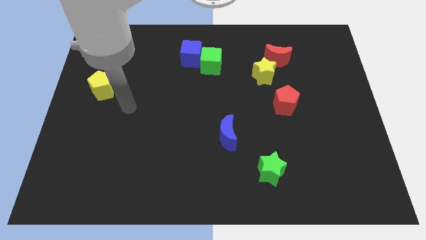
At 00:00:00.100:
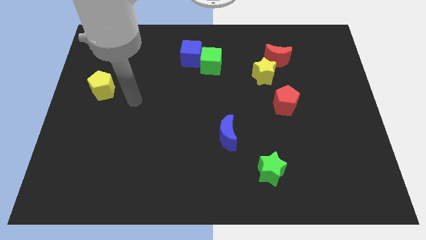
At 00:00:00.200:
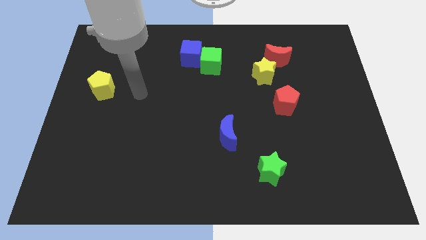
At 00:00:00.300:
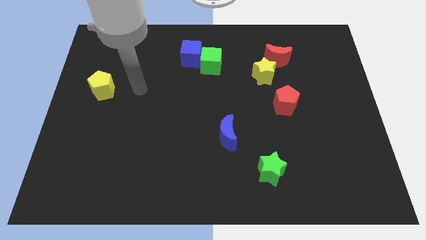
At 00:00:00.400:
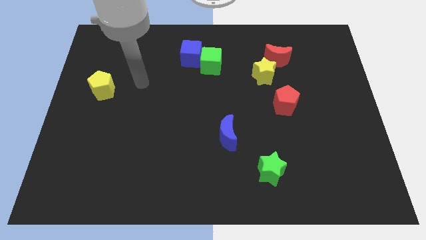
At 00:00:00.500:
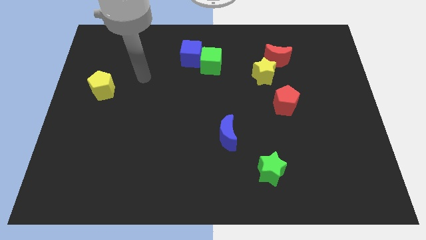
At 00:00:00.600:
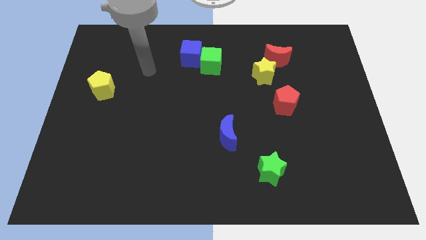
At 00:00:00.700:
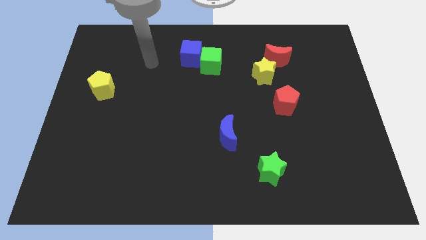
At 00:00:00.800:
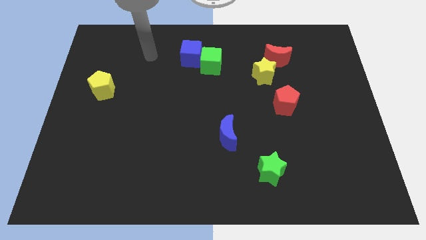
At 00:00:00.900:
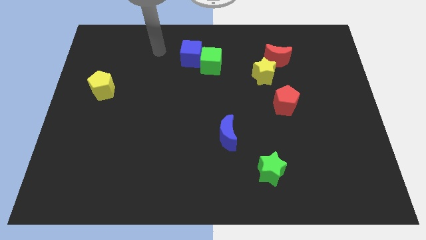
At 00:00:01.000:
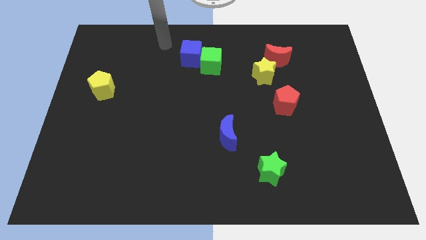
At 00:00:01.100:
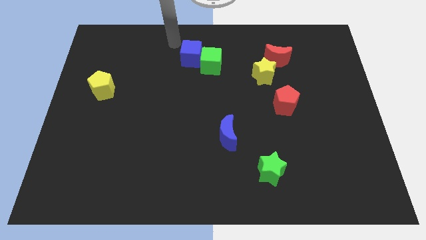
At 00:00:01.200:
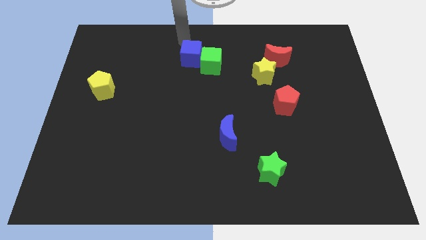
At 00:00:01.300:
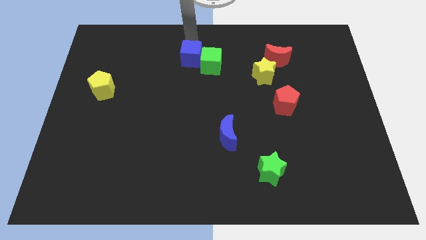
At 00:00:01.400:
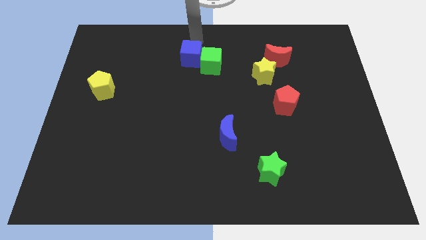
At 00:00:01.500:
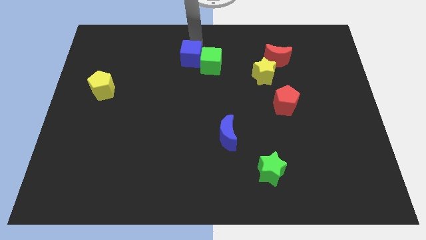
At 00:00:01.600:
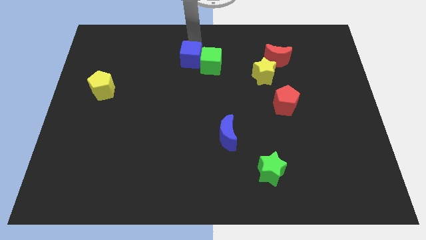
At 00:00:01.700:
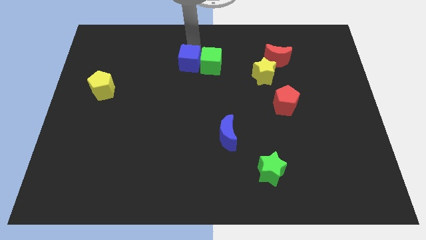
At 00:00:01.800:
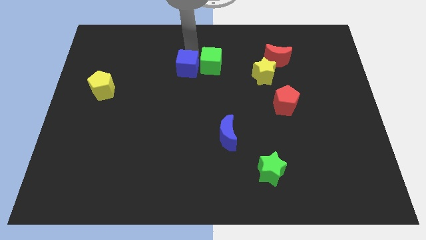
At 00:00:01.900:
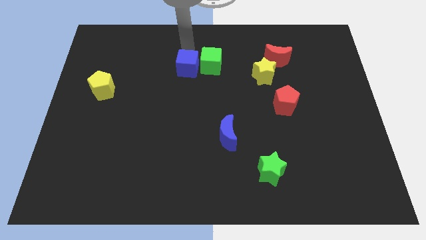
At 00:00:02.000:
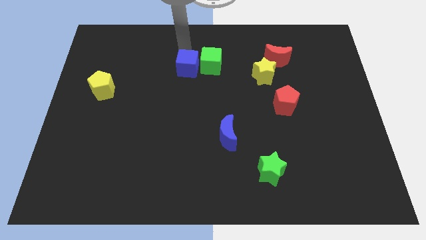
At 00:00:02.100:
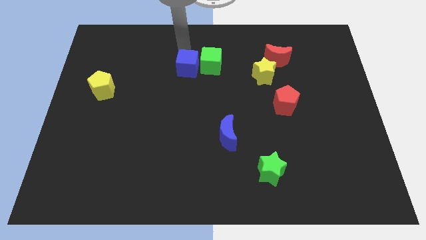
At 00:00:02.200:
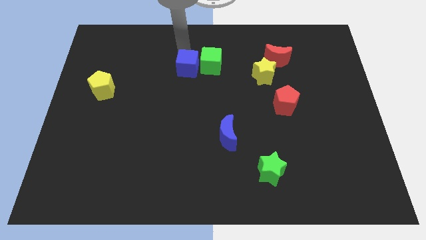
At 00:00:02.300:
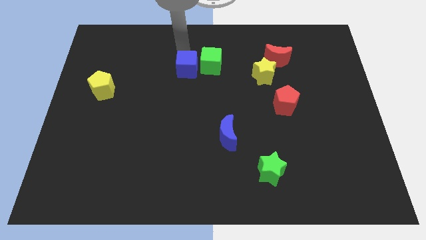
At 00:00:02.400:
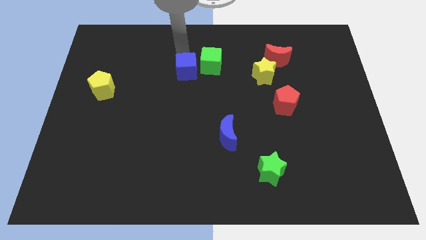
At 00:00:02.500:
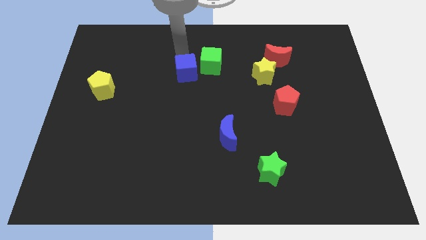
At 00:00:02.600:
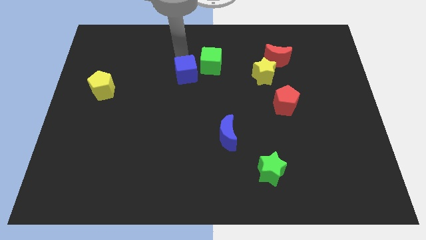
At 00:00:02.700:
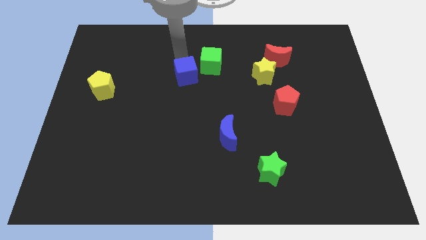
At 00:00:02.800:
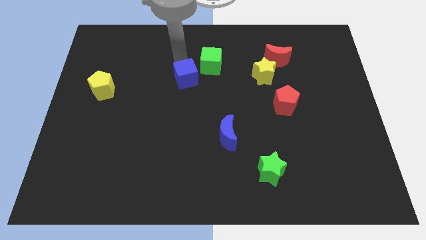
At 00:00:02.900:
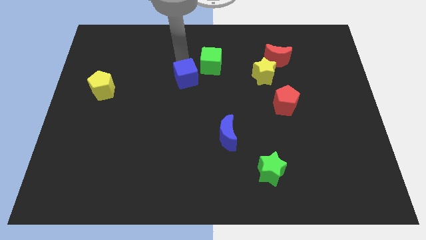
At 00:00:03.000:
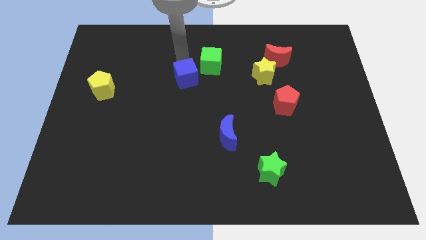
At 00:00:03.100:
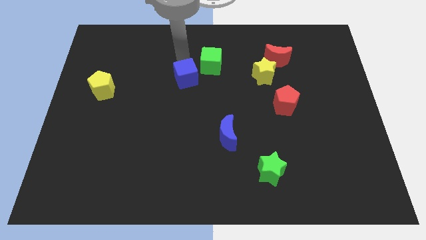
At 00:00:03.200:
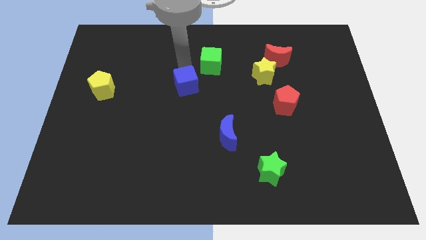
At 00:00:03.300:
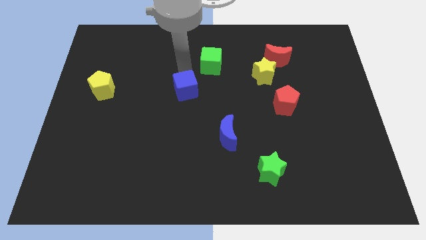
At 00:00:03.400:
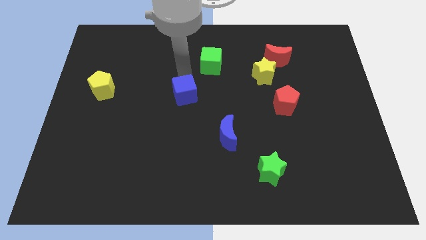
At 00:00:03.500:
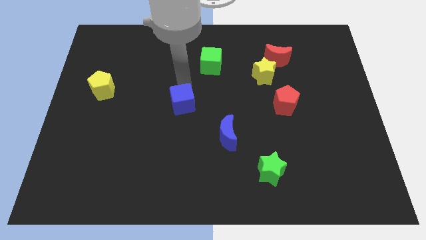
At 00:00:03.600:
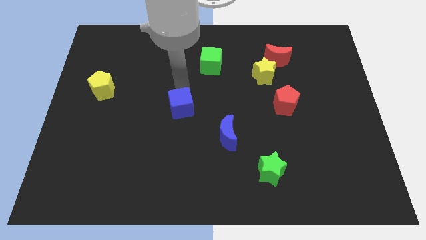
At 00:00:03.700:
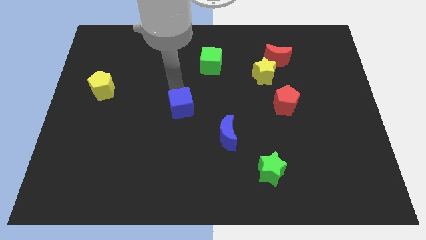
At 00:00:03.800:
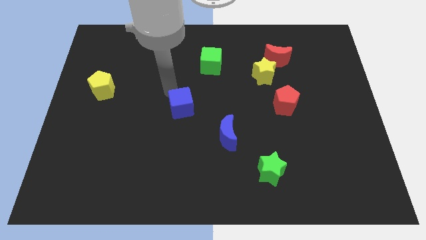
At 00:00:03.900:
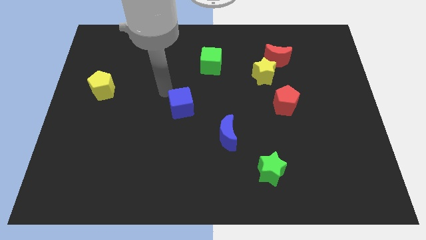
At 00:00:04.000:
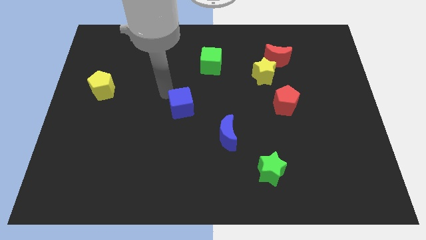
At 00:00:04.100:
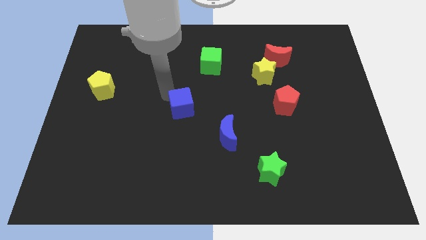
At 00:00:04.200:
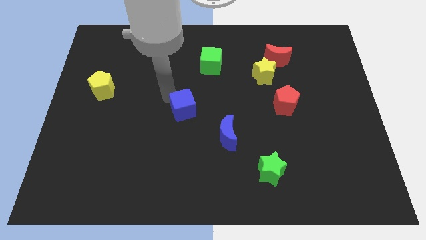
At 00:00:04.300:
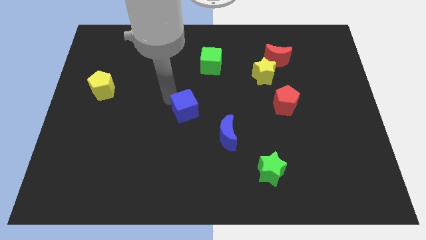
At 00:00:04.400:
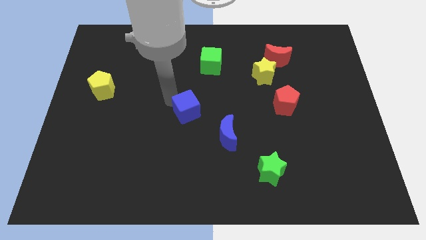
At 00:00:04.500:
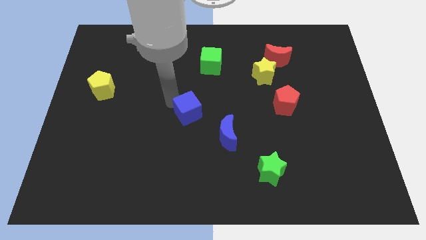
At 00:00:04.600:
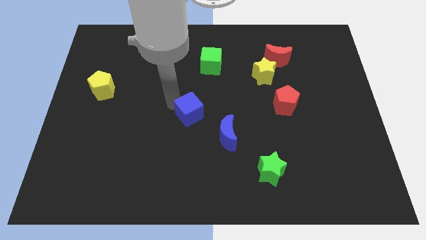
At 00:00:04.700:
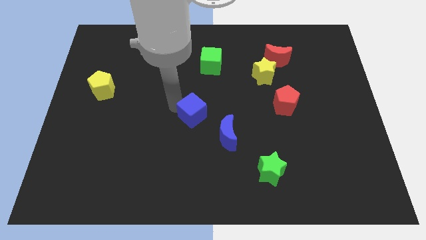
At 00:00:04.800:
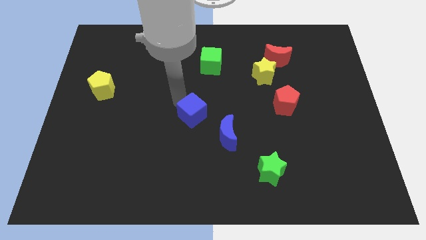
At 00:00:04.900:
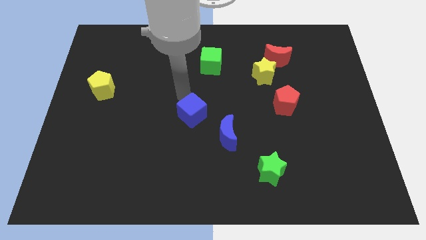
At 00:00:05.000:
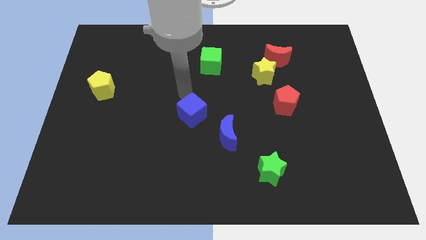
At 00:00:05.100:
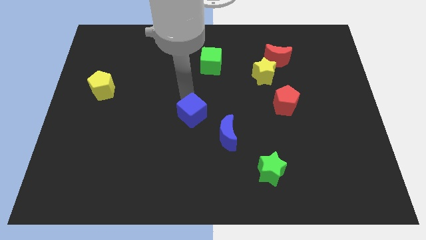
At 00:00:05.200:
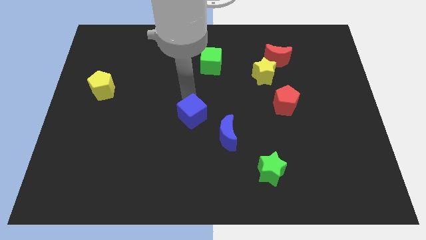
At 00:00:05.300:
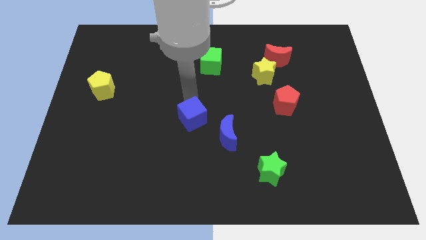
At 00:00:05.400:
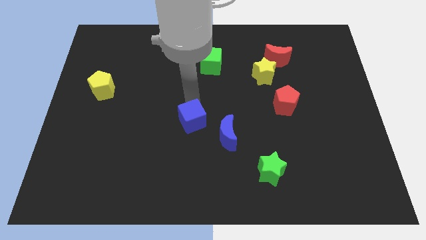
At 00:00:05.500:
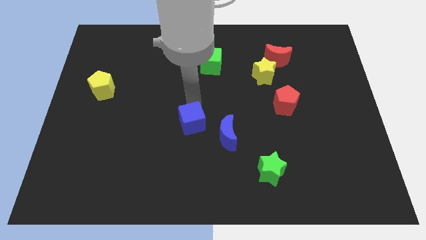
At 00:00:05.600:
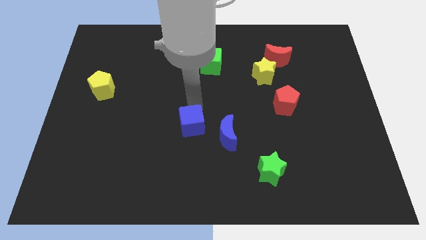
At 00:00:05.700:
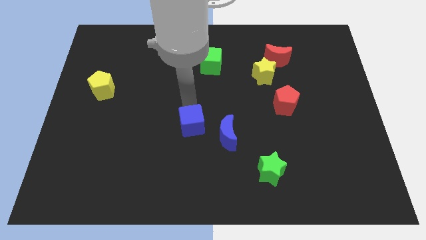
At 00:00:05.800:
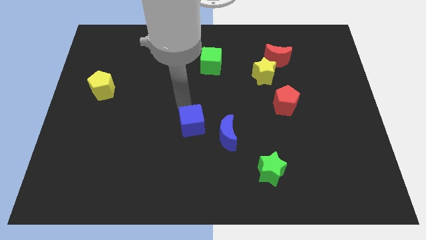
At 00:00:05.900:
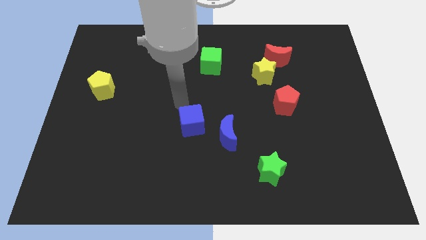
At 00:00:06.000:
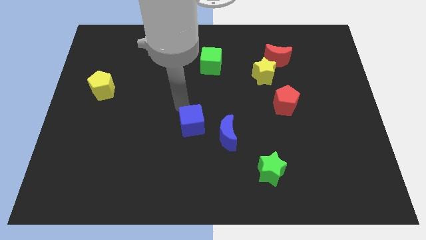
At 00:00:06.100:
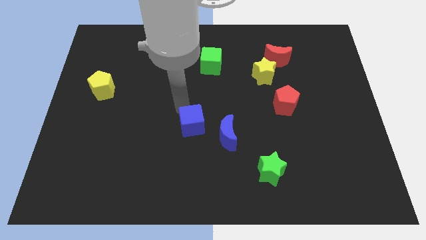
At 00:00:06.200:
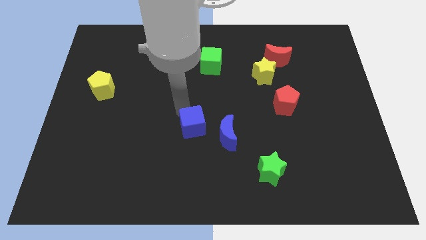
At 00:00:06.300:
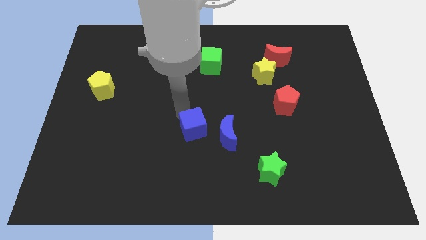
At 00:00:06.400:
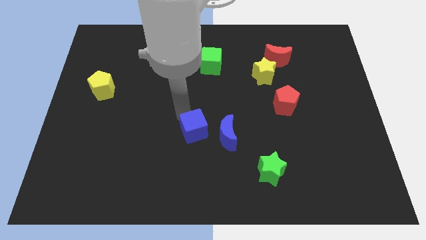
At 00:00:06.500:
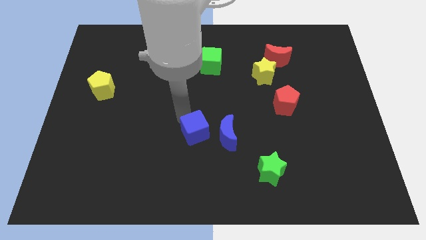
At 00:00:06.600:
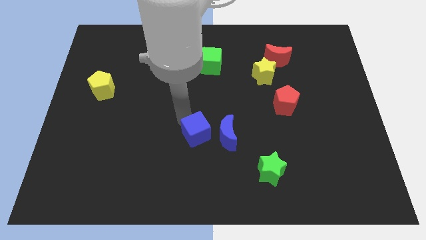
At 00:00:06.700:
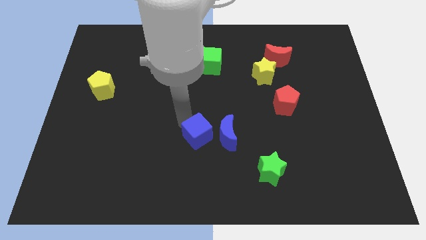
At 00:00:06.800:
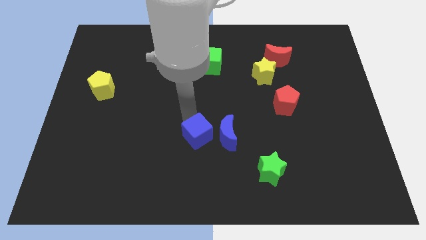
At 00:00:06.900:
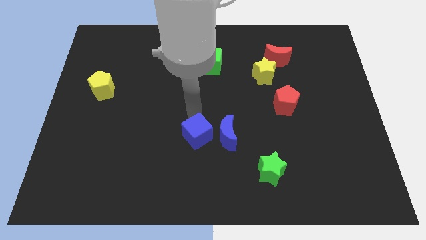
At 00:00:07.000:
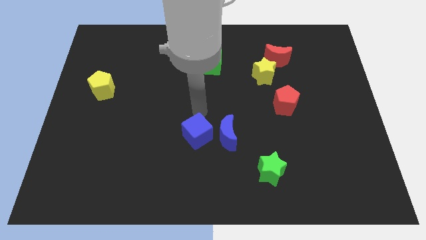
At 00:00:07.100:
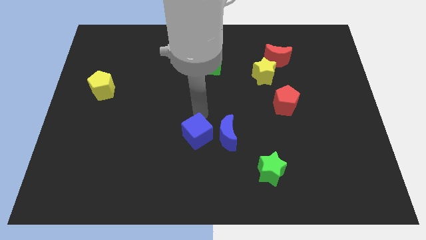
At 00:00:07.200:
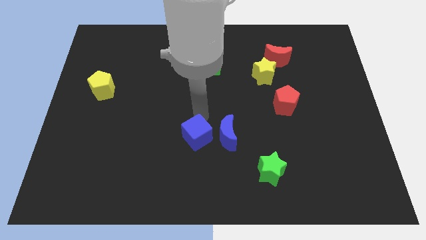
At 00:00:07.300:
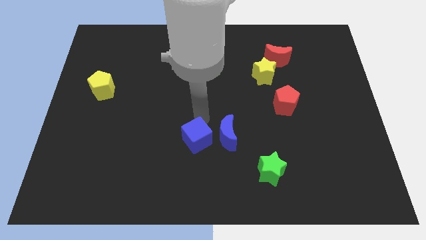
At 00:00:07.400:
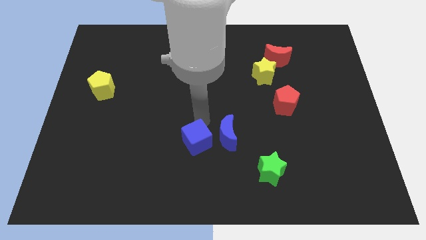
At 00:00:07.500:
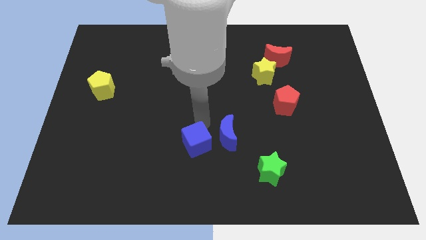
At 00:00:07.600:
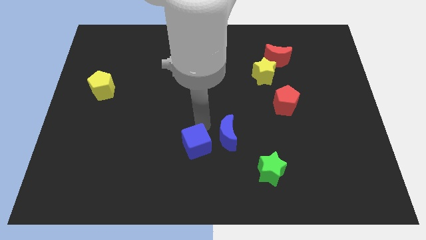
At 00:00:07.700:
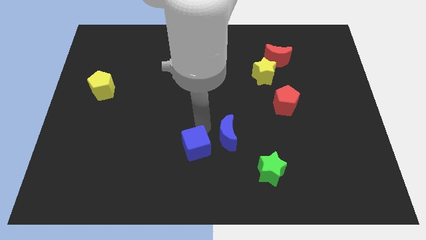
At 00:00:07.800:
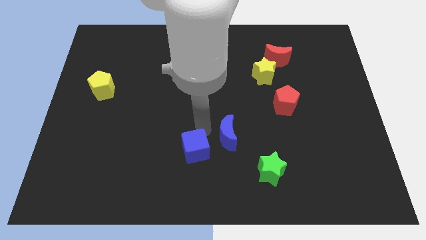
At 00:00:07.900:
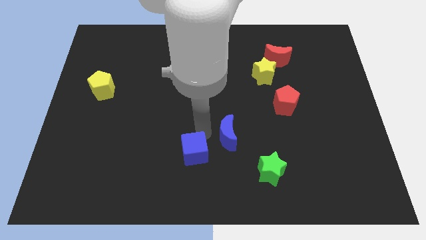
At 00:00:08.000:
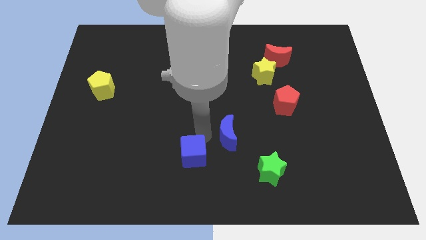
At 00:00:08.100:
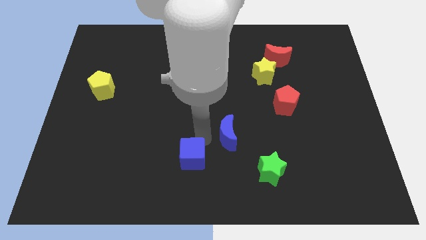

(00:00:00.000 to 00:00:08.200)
put the blue cube to the bottom side
